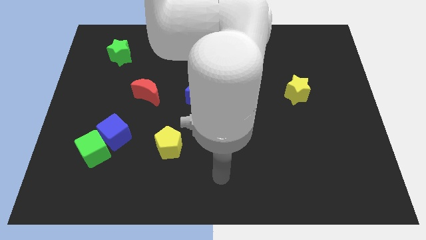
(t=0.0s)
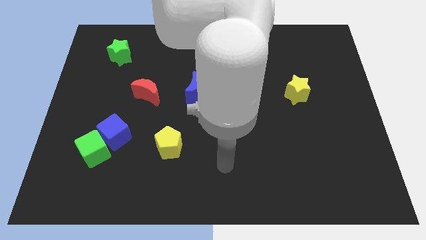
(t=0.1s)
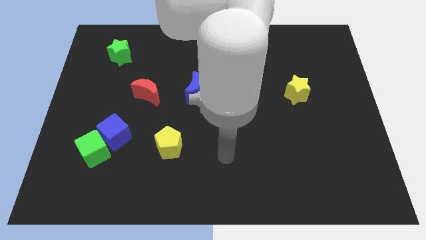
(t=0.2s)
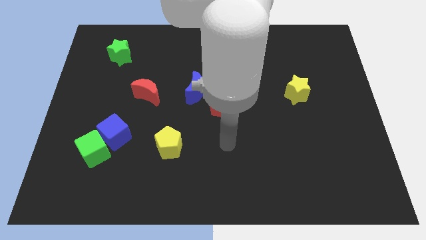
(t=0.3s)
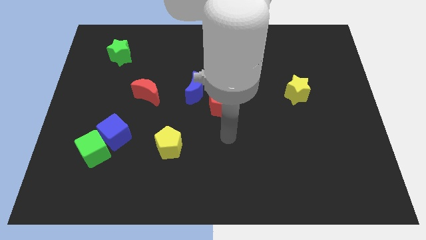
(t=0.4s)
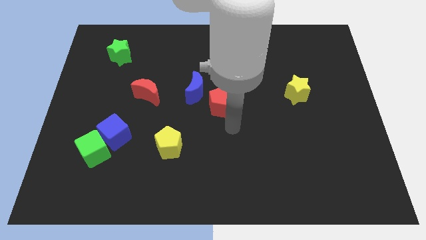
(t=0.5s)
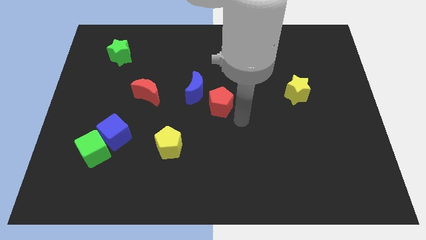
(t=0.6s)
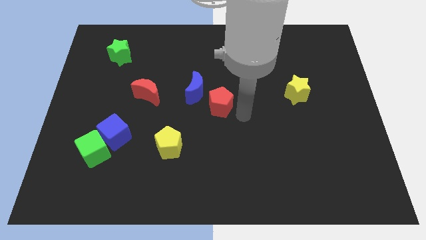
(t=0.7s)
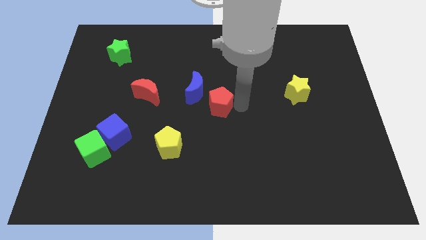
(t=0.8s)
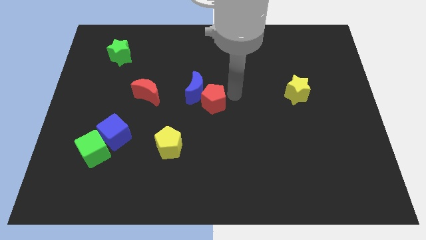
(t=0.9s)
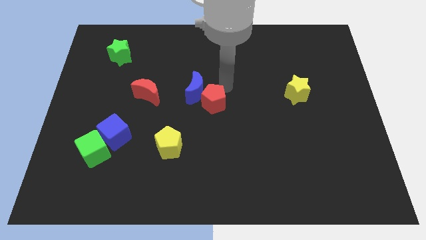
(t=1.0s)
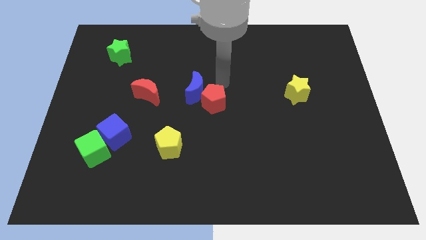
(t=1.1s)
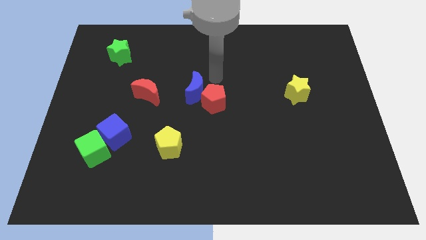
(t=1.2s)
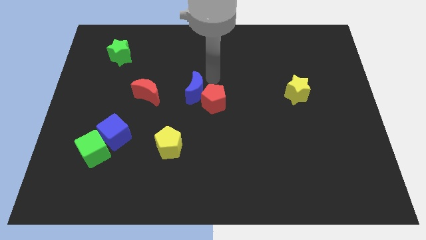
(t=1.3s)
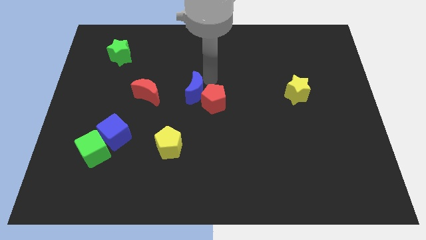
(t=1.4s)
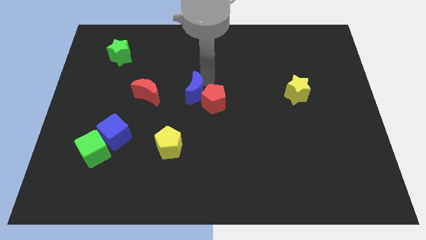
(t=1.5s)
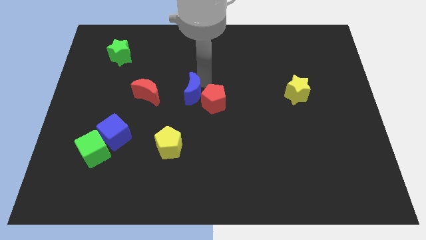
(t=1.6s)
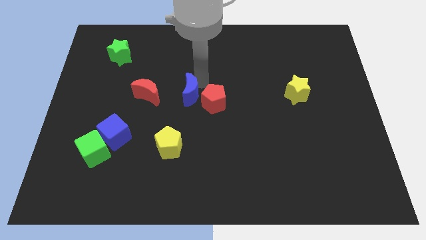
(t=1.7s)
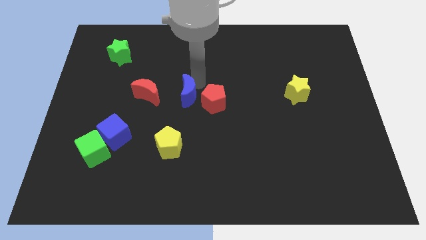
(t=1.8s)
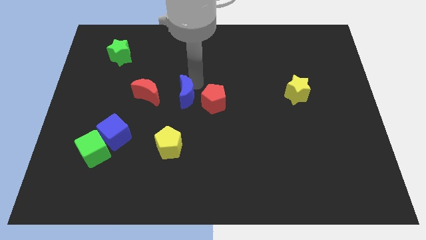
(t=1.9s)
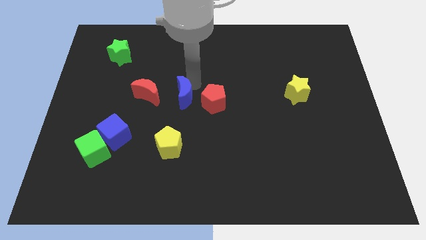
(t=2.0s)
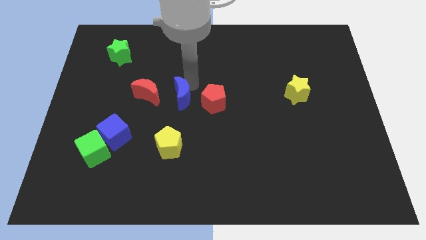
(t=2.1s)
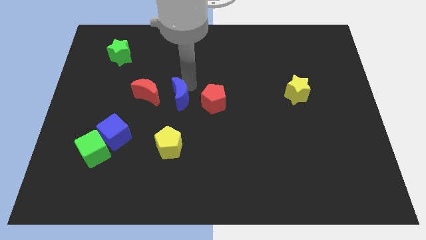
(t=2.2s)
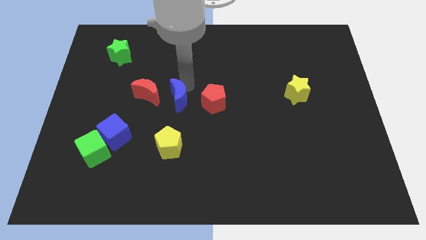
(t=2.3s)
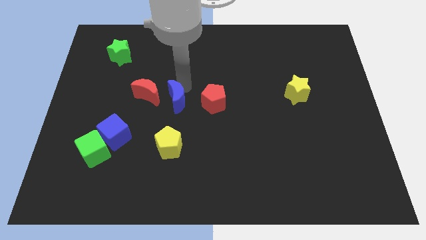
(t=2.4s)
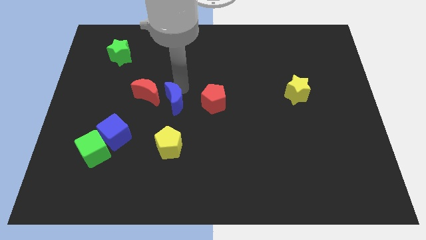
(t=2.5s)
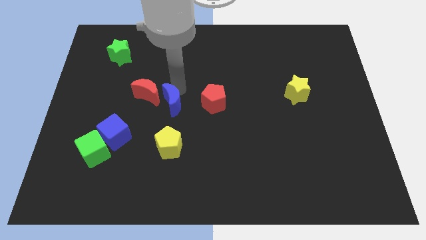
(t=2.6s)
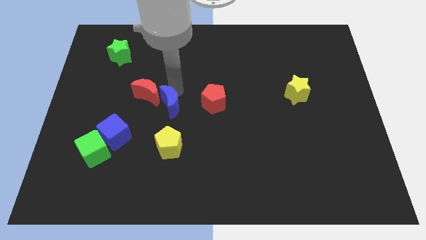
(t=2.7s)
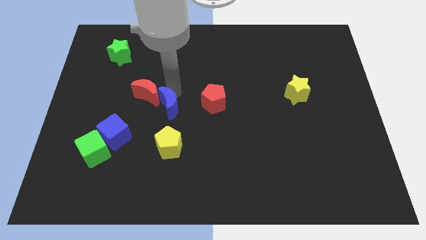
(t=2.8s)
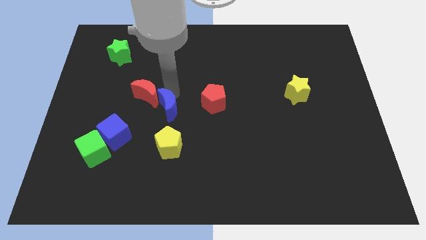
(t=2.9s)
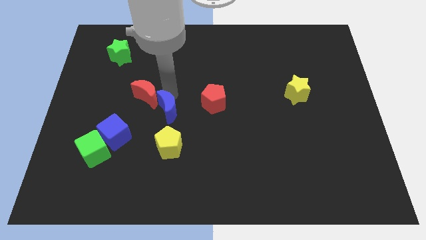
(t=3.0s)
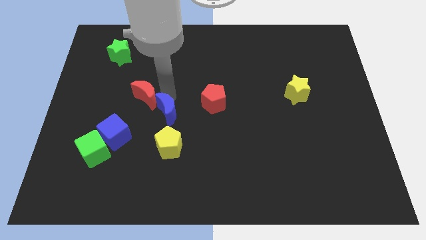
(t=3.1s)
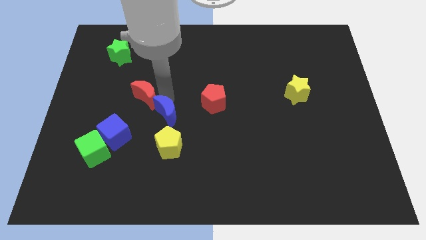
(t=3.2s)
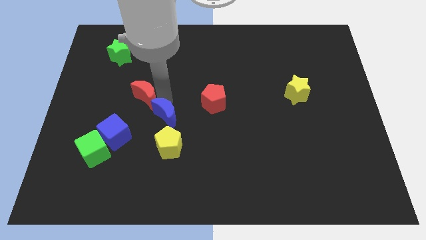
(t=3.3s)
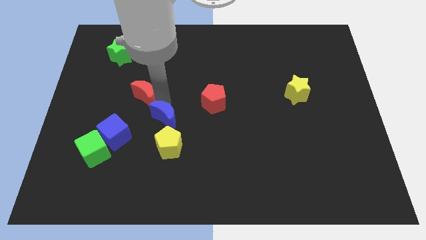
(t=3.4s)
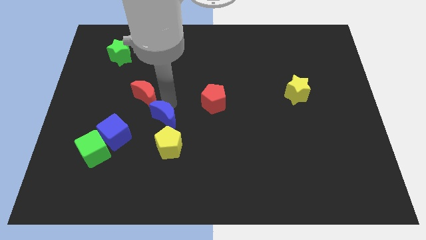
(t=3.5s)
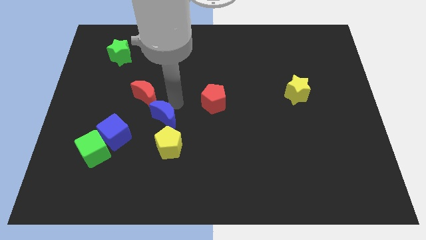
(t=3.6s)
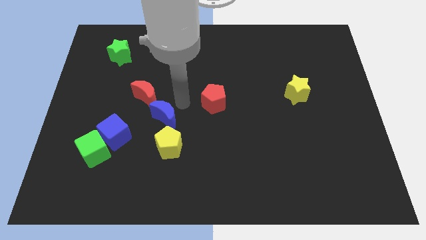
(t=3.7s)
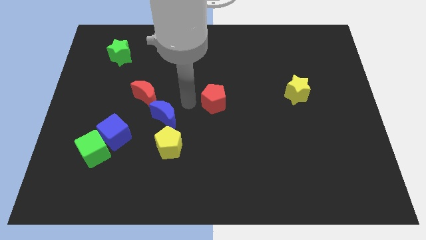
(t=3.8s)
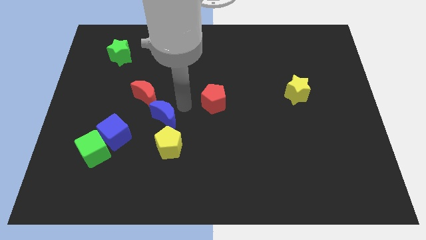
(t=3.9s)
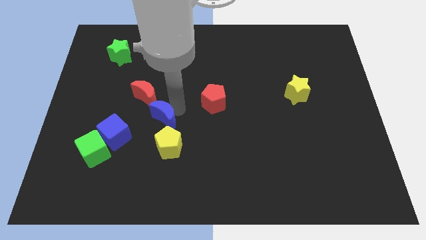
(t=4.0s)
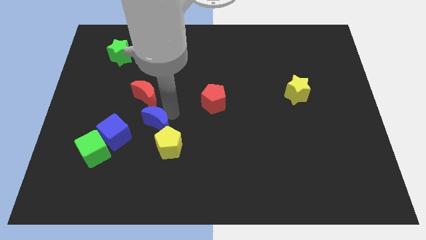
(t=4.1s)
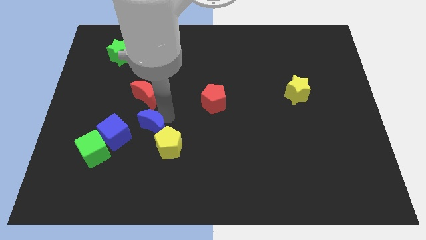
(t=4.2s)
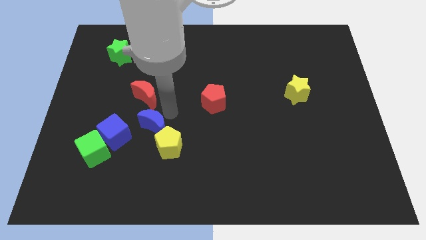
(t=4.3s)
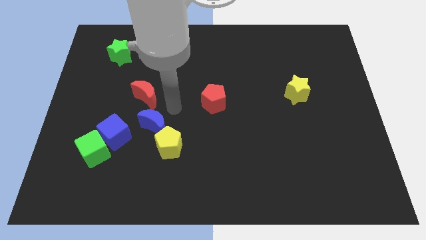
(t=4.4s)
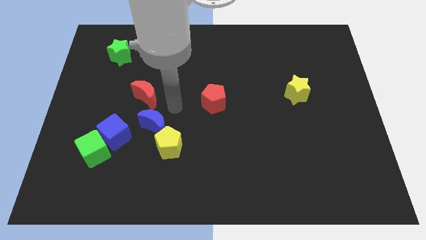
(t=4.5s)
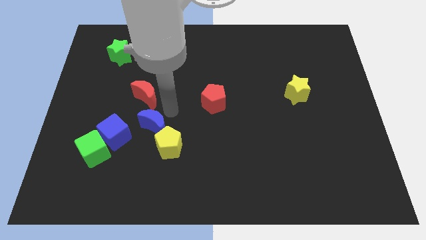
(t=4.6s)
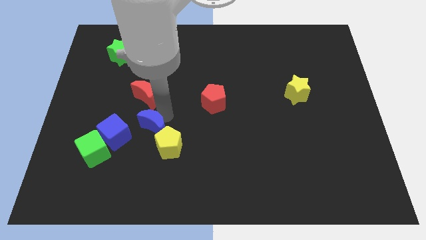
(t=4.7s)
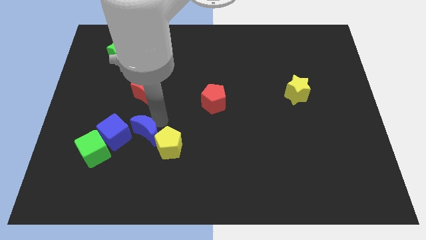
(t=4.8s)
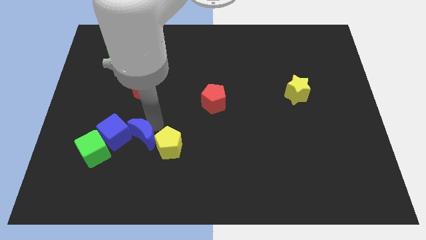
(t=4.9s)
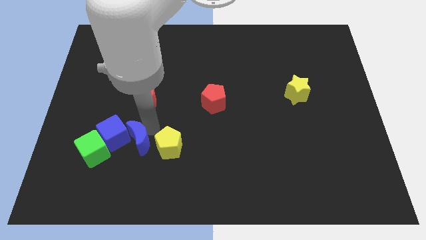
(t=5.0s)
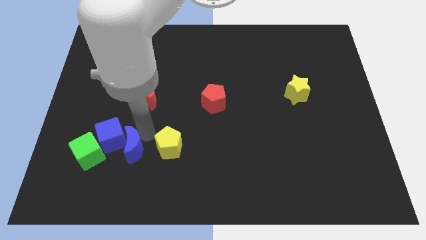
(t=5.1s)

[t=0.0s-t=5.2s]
slide the blue moon down and left

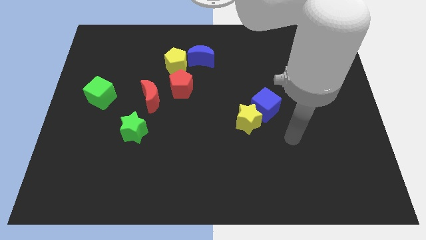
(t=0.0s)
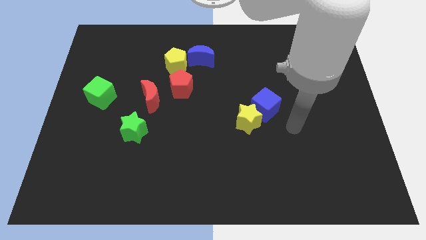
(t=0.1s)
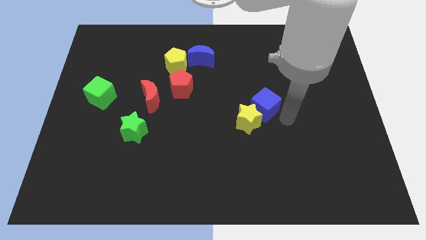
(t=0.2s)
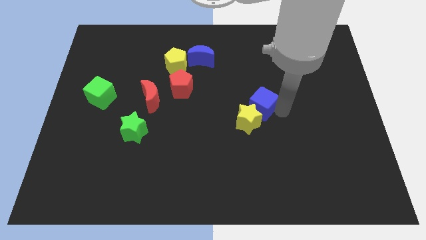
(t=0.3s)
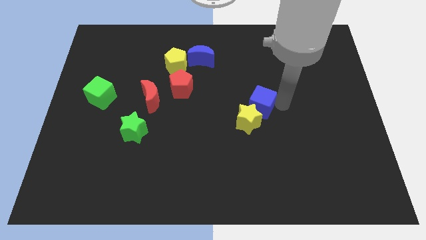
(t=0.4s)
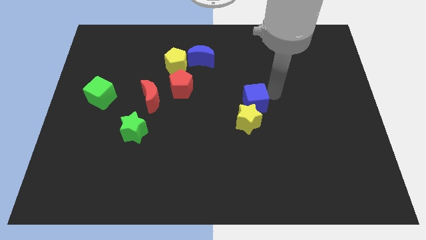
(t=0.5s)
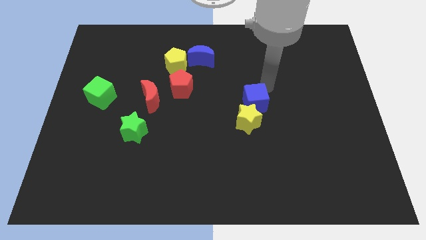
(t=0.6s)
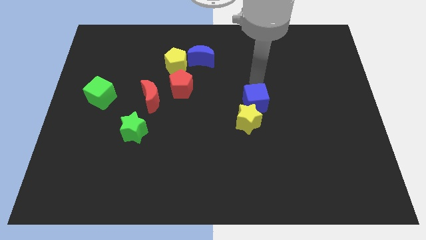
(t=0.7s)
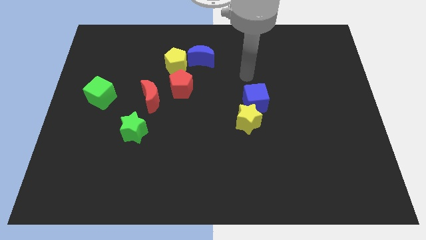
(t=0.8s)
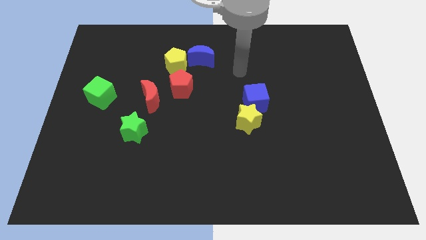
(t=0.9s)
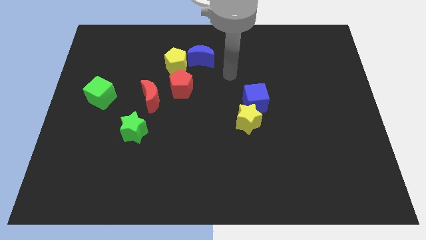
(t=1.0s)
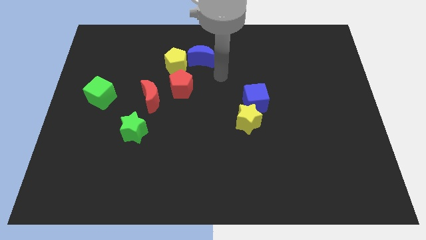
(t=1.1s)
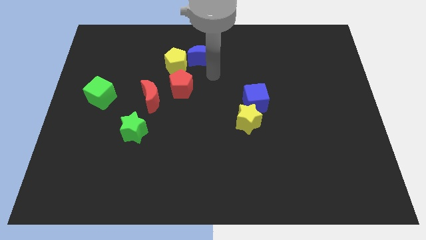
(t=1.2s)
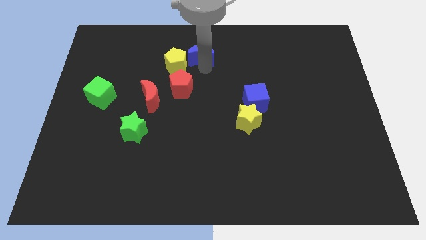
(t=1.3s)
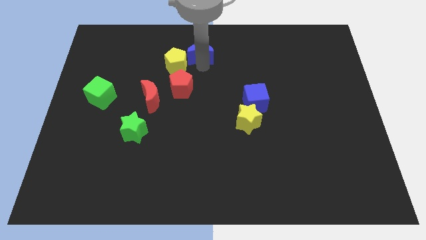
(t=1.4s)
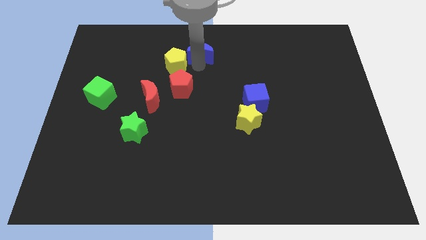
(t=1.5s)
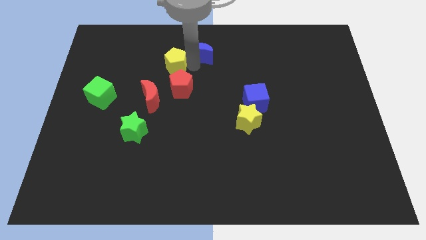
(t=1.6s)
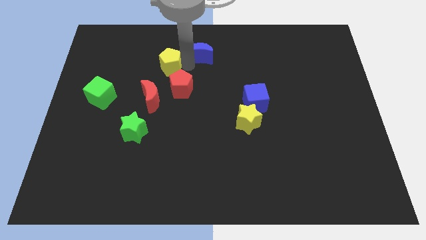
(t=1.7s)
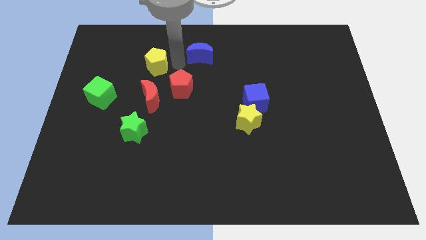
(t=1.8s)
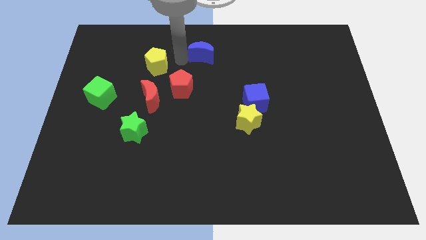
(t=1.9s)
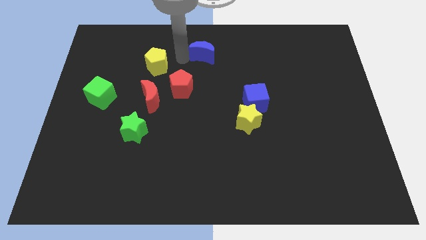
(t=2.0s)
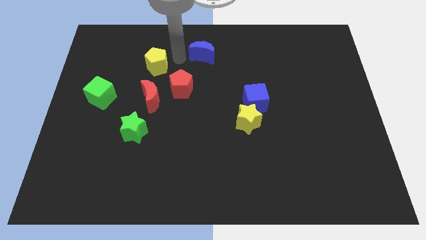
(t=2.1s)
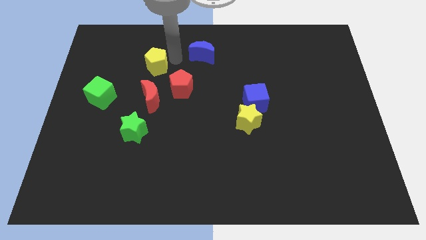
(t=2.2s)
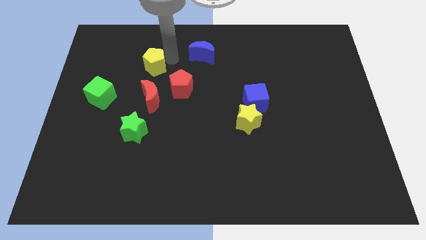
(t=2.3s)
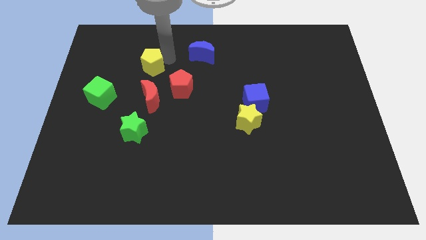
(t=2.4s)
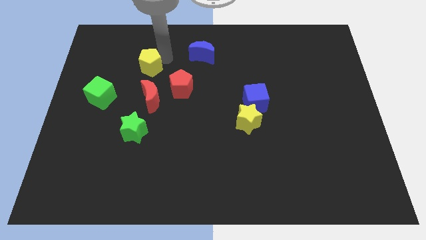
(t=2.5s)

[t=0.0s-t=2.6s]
slightly slide the yellow pentagon left
